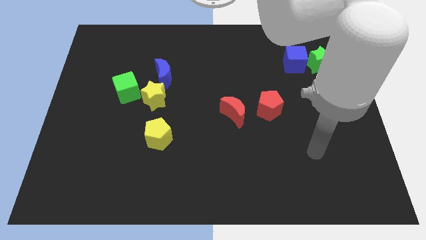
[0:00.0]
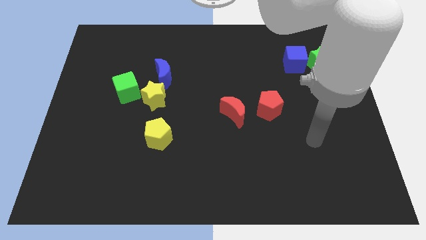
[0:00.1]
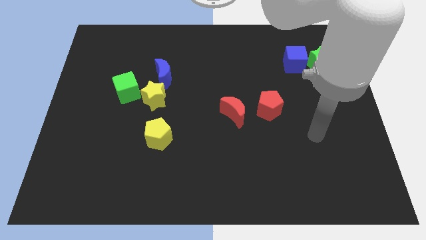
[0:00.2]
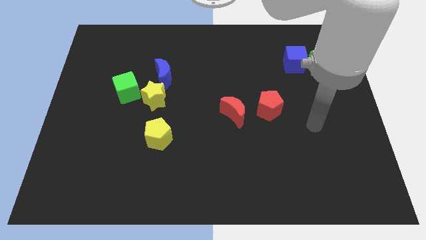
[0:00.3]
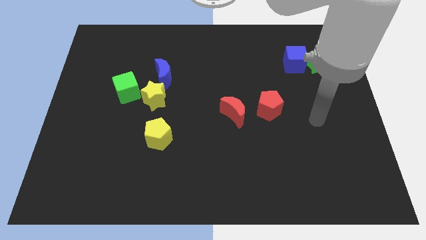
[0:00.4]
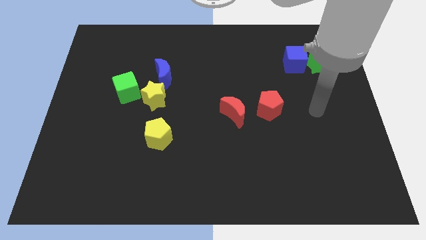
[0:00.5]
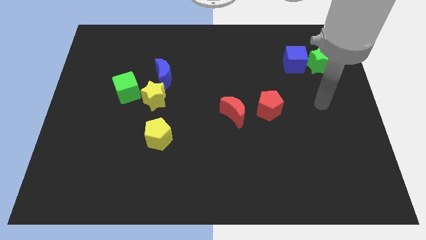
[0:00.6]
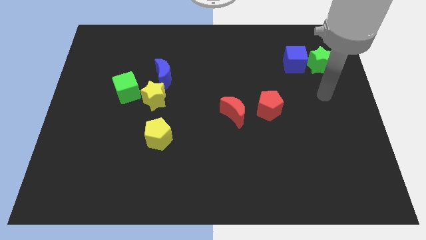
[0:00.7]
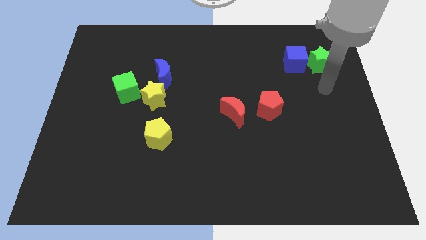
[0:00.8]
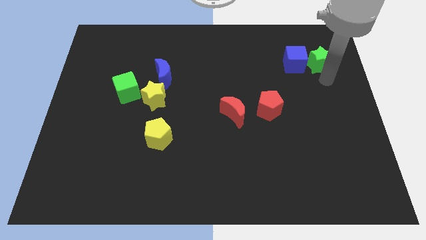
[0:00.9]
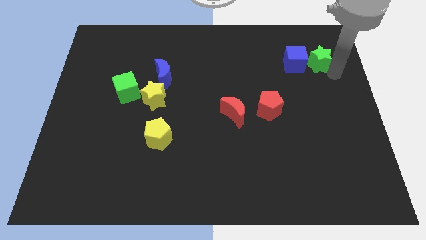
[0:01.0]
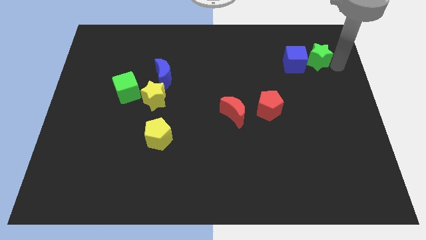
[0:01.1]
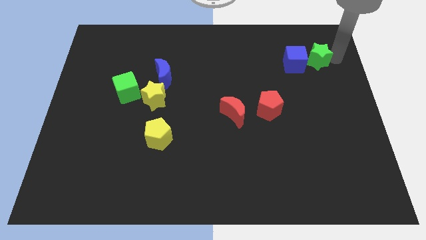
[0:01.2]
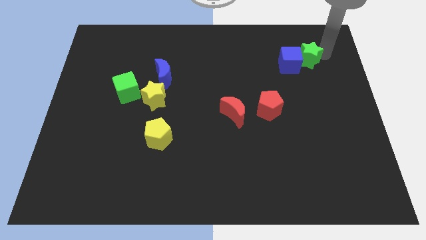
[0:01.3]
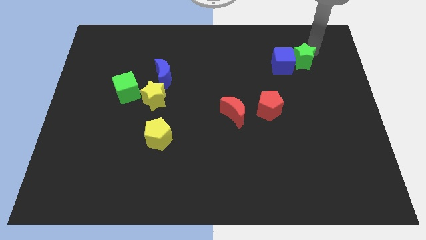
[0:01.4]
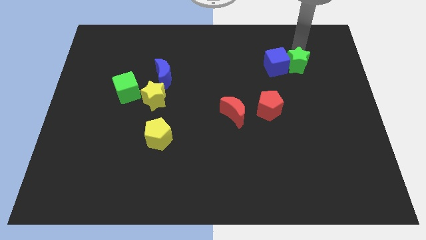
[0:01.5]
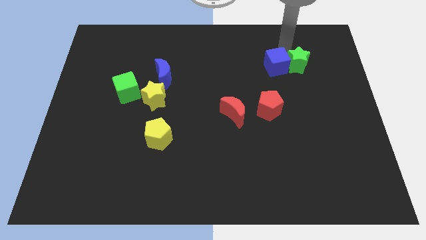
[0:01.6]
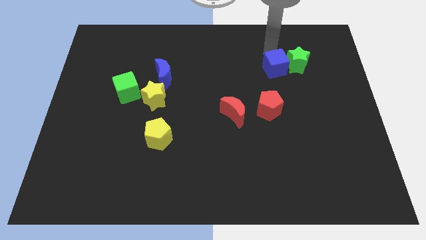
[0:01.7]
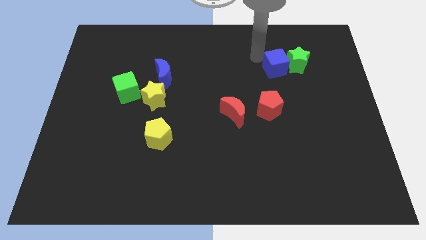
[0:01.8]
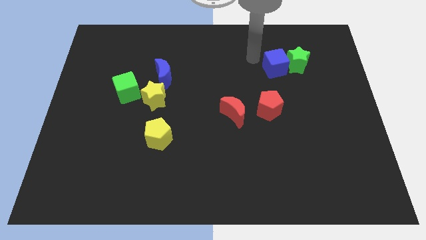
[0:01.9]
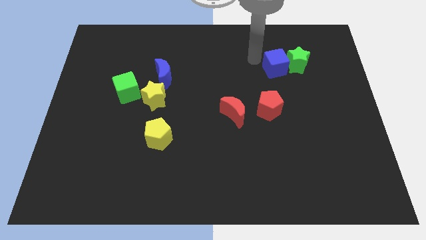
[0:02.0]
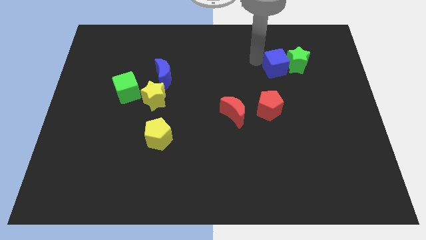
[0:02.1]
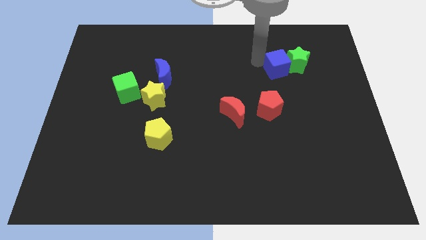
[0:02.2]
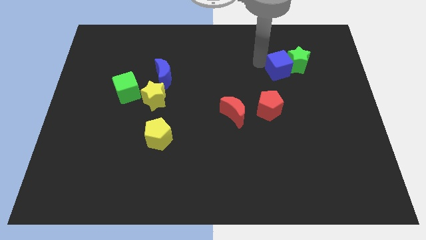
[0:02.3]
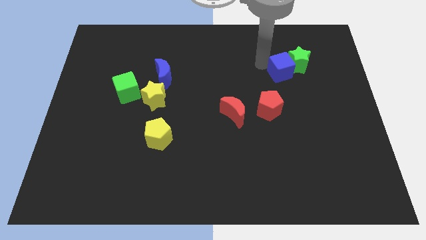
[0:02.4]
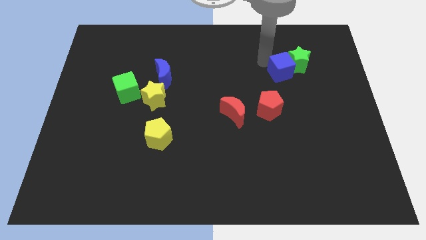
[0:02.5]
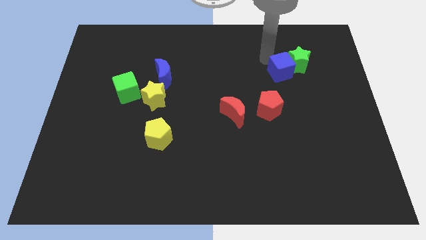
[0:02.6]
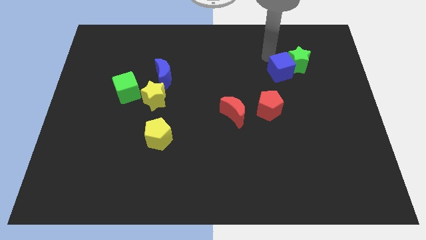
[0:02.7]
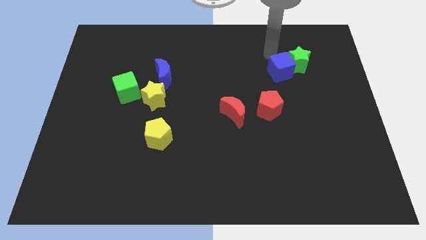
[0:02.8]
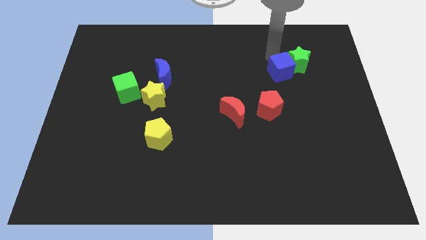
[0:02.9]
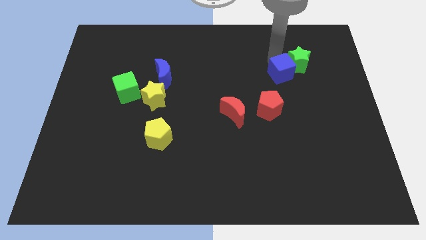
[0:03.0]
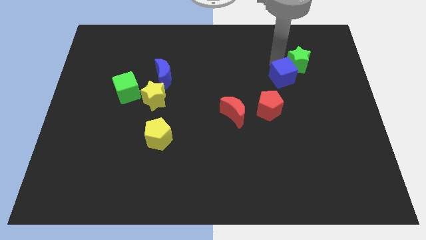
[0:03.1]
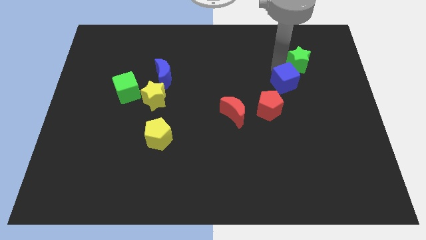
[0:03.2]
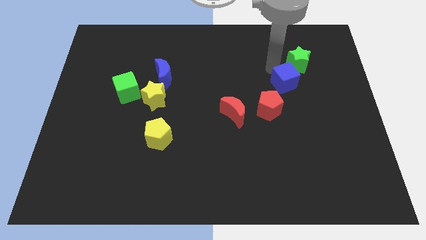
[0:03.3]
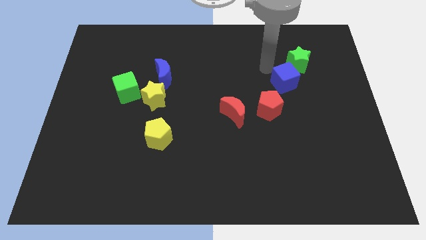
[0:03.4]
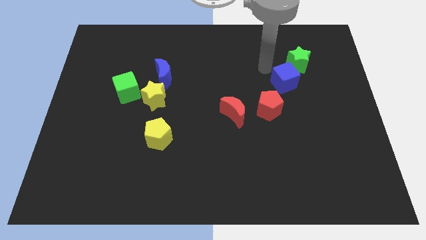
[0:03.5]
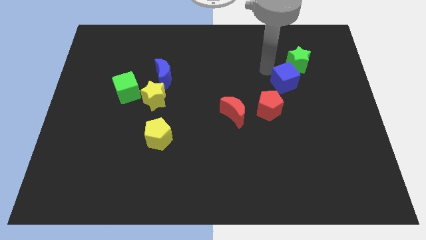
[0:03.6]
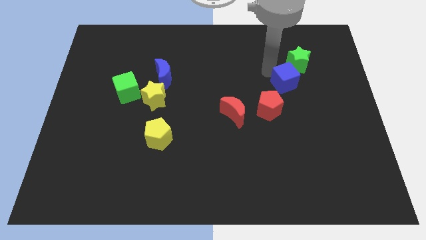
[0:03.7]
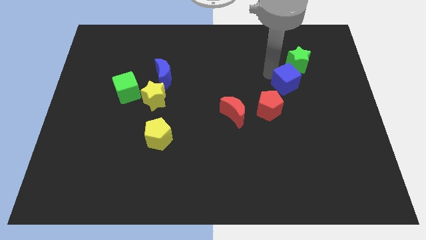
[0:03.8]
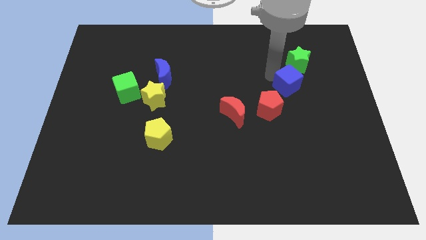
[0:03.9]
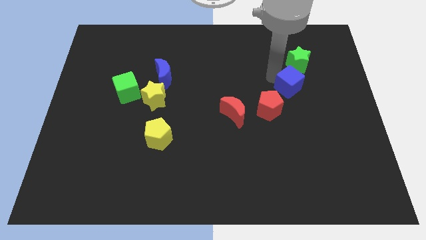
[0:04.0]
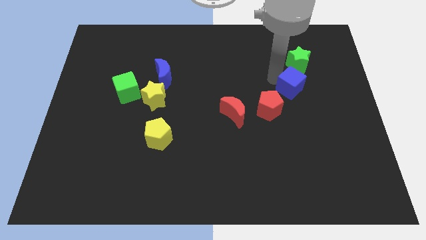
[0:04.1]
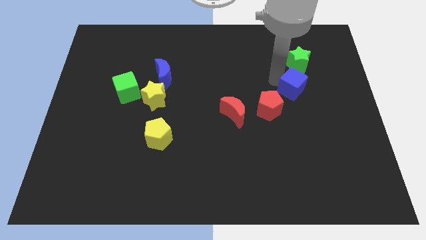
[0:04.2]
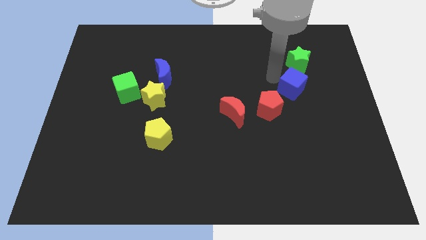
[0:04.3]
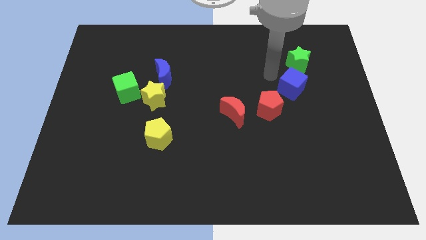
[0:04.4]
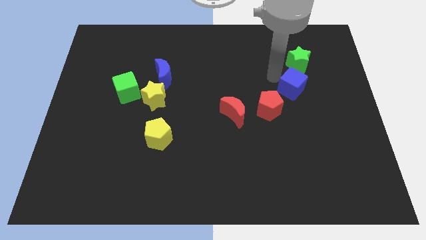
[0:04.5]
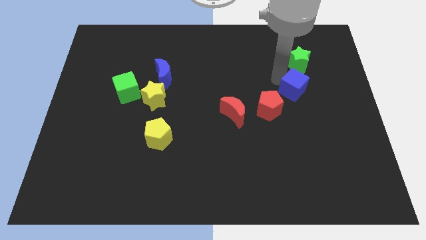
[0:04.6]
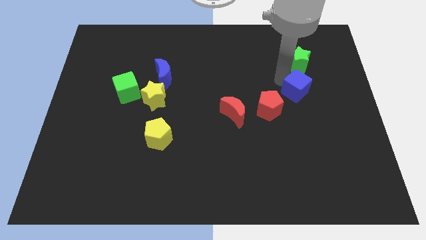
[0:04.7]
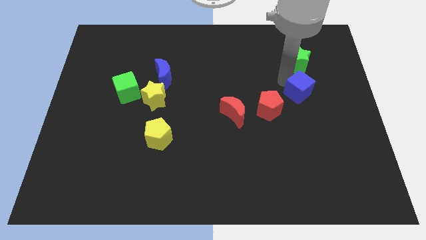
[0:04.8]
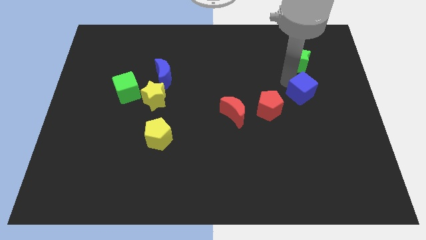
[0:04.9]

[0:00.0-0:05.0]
push the blue cube to the right side of the red pentagon

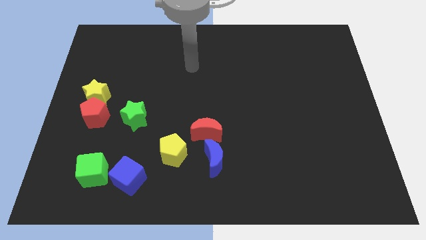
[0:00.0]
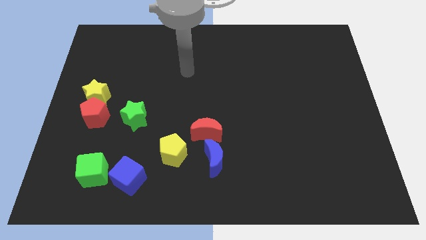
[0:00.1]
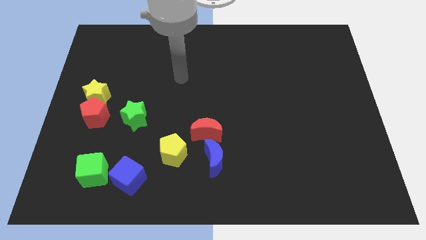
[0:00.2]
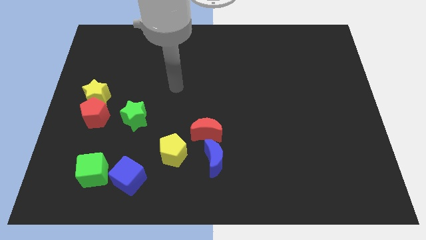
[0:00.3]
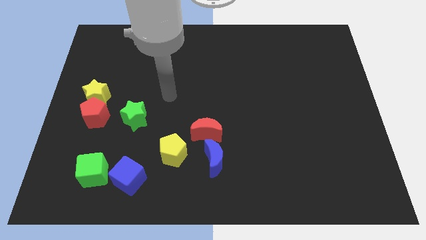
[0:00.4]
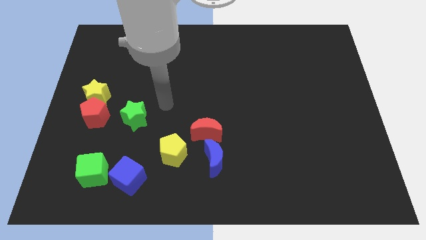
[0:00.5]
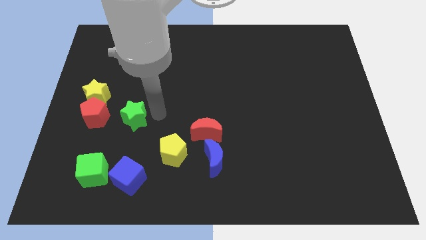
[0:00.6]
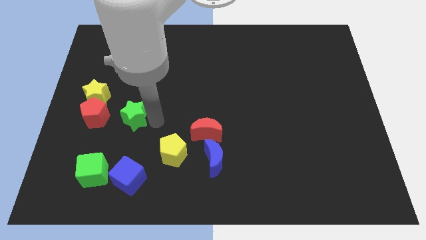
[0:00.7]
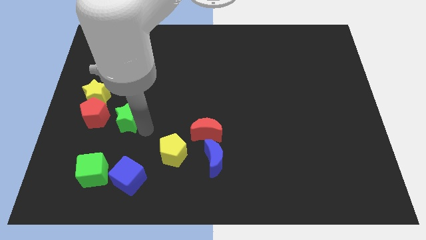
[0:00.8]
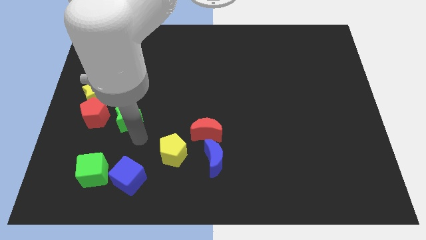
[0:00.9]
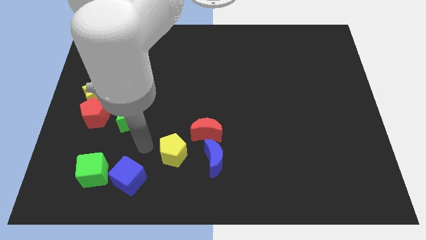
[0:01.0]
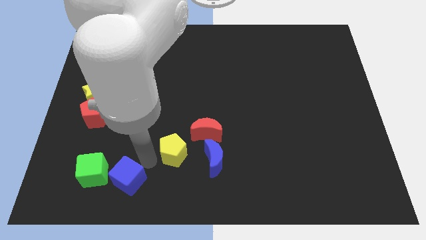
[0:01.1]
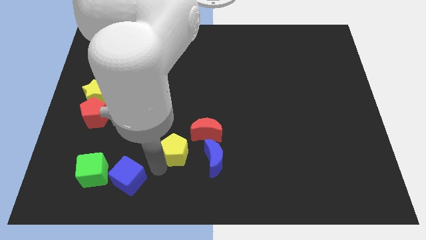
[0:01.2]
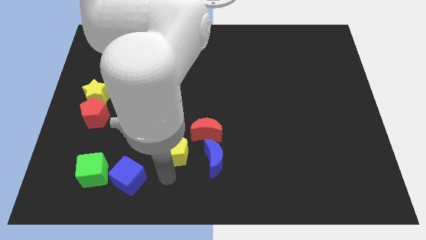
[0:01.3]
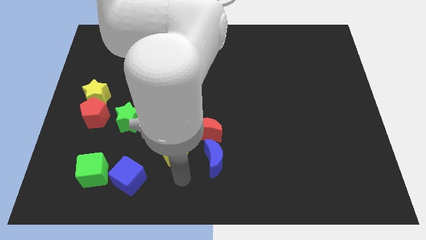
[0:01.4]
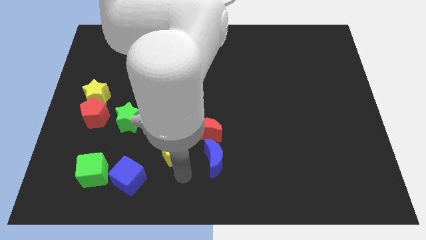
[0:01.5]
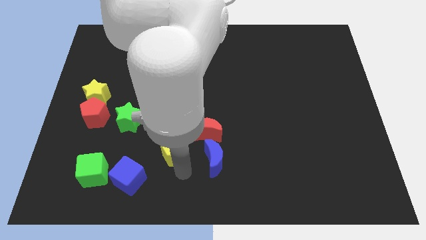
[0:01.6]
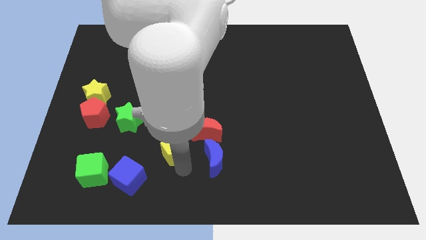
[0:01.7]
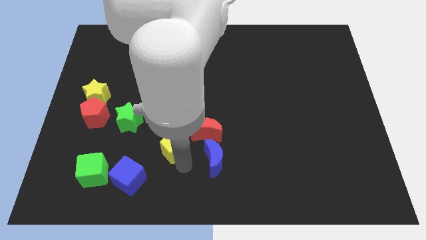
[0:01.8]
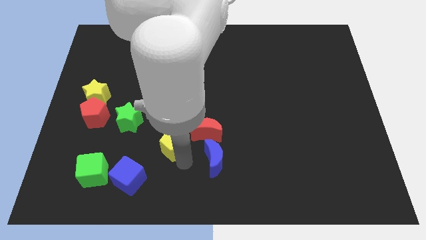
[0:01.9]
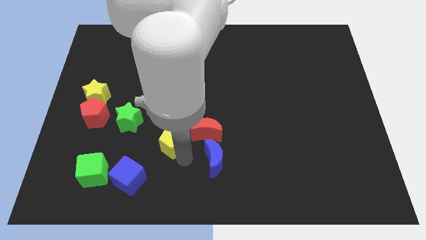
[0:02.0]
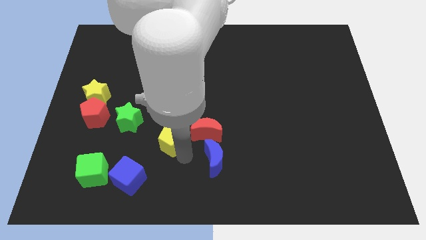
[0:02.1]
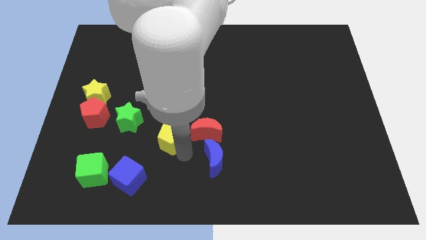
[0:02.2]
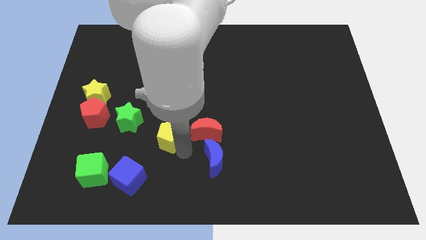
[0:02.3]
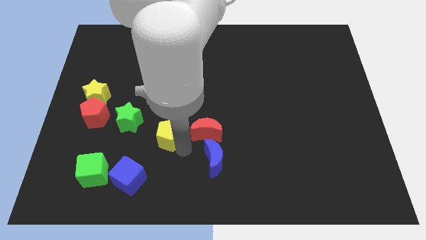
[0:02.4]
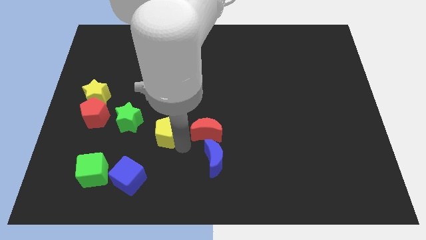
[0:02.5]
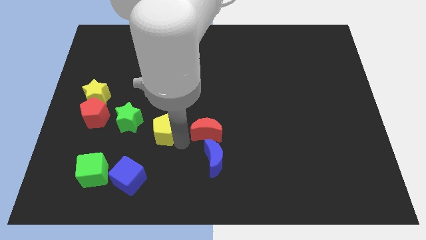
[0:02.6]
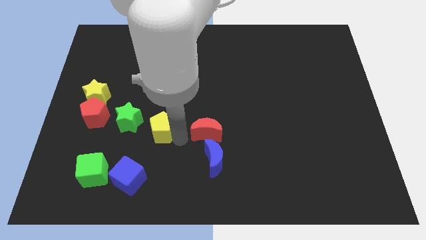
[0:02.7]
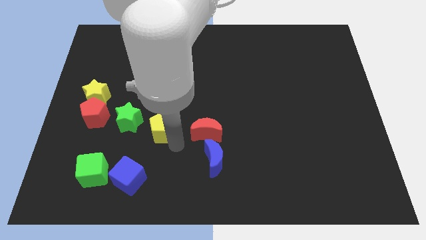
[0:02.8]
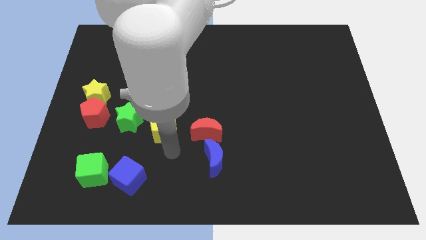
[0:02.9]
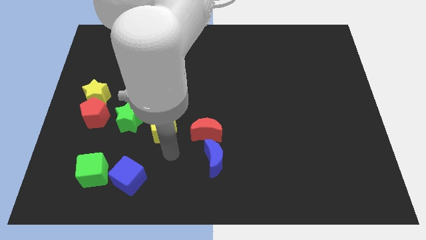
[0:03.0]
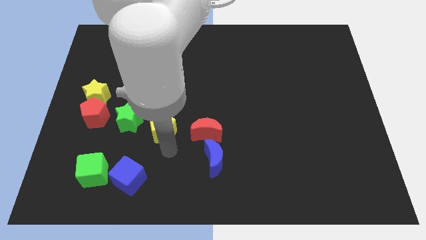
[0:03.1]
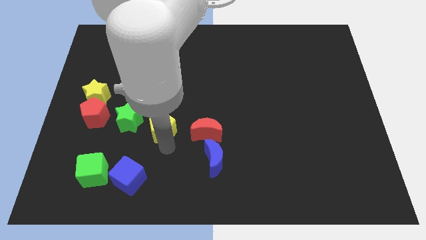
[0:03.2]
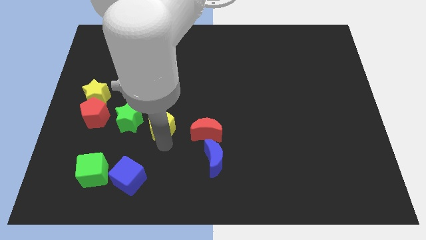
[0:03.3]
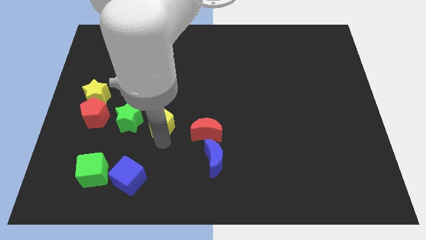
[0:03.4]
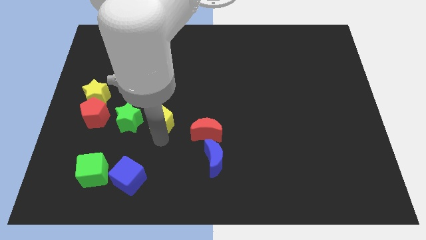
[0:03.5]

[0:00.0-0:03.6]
move the yellow pentagon to the top right side of the green star
